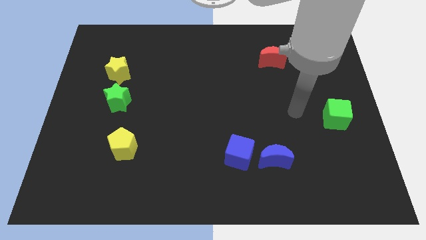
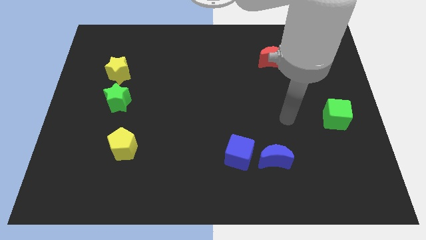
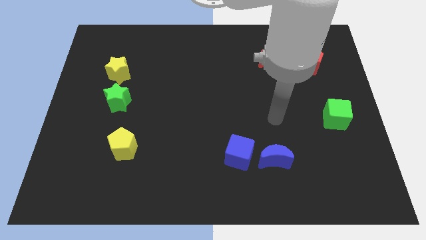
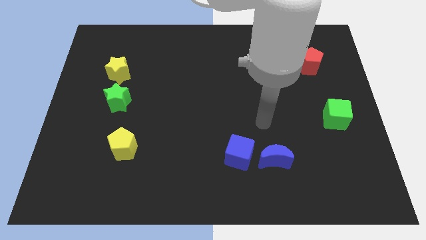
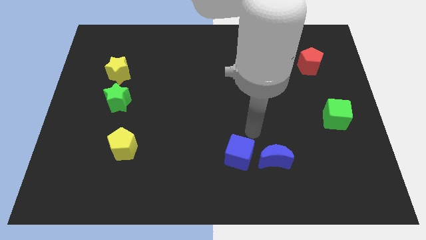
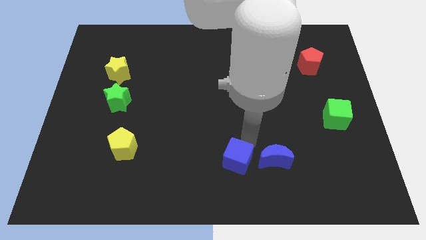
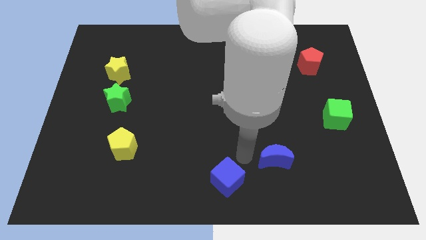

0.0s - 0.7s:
separate the blue moon from the blue cube

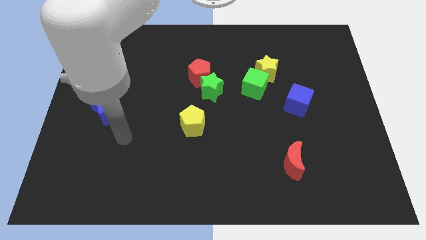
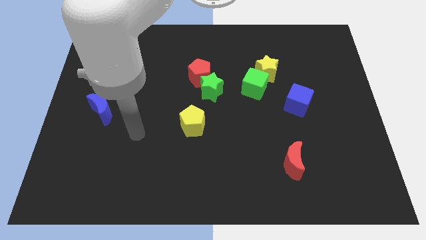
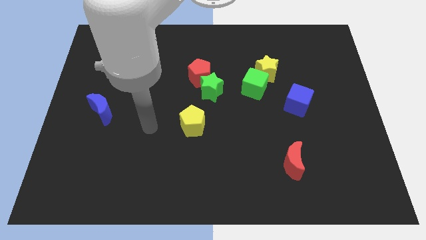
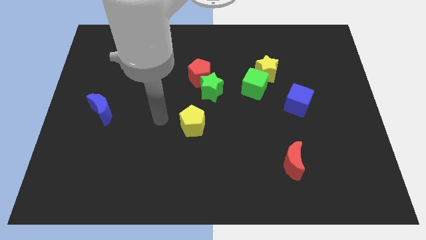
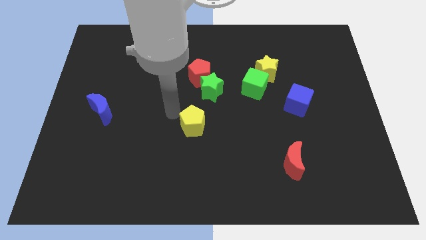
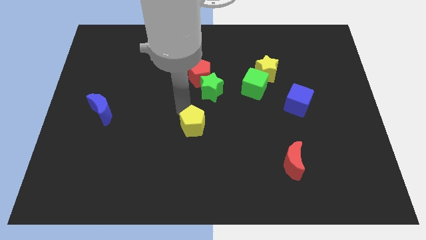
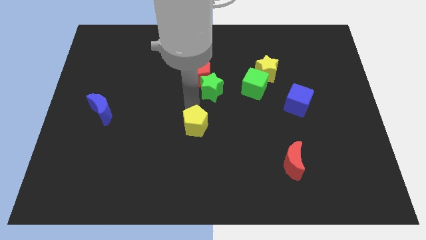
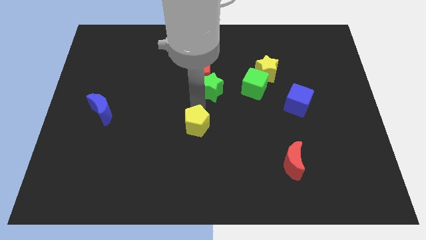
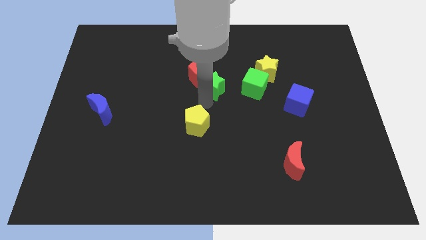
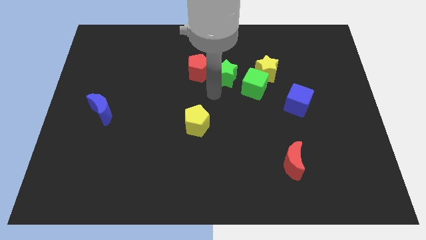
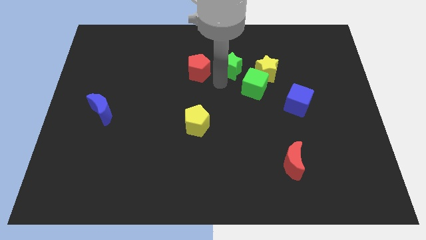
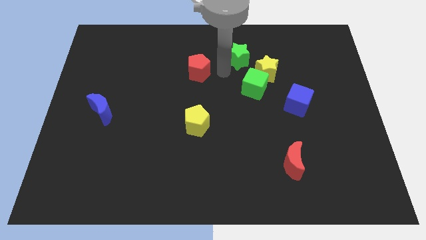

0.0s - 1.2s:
pull the red pentagon apart from the green star

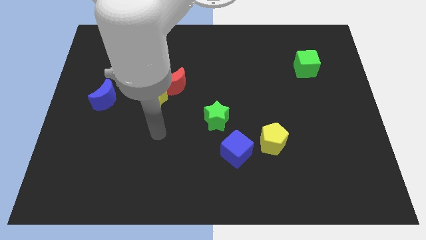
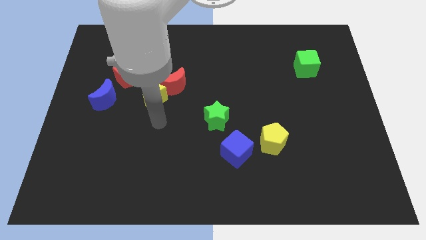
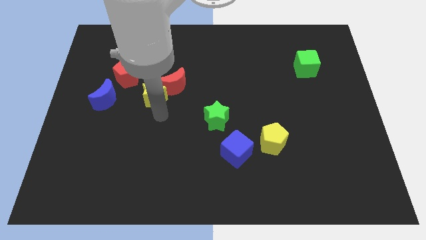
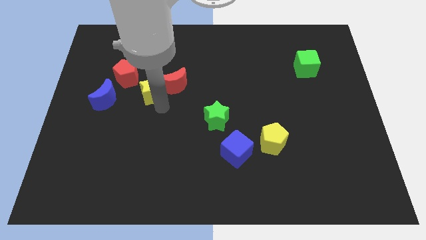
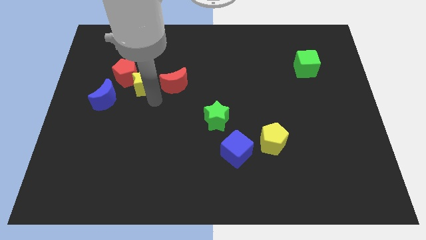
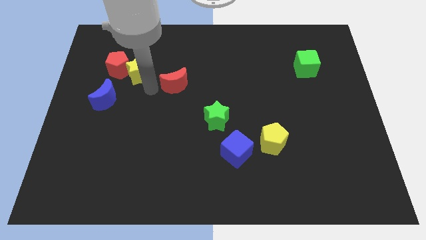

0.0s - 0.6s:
separate the red moon from the yellow star

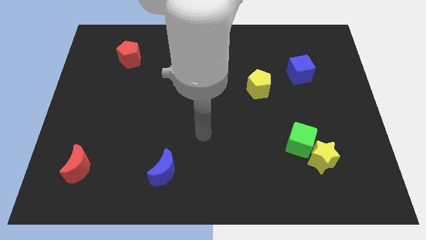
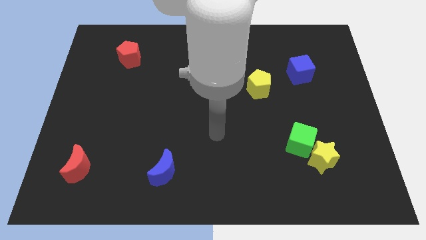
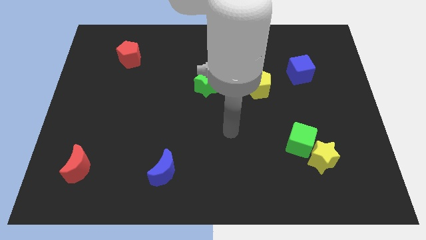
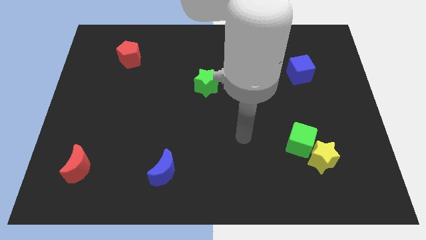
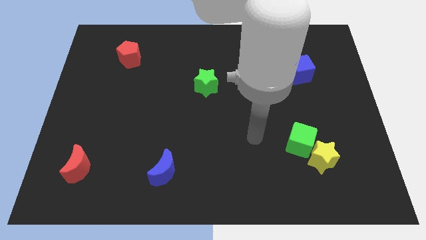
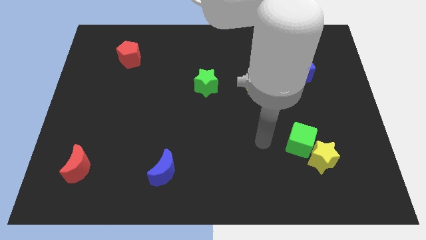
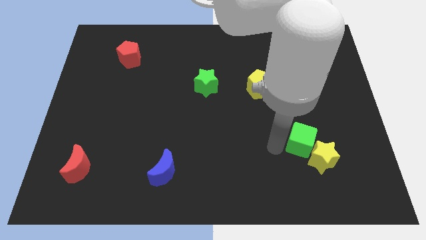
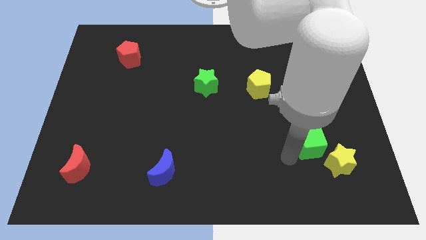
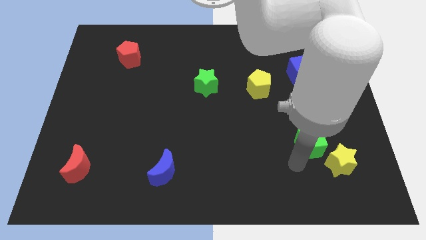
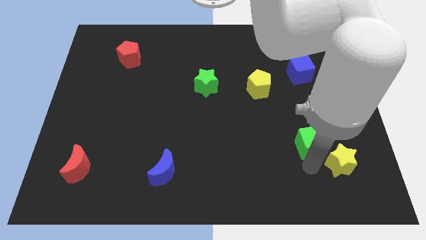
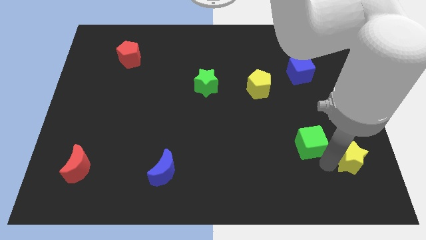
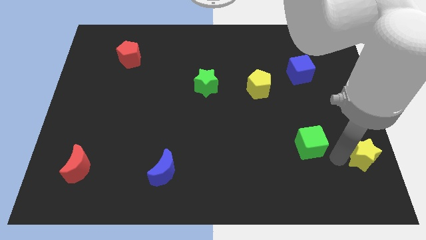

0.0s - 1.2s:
separate the green cube from the yellow star

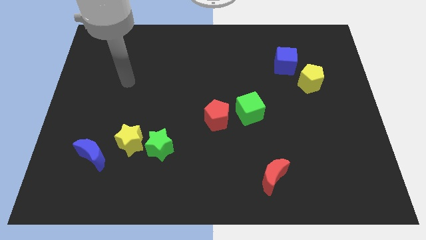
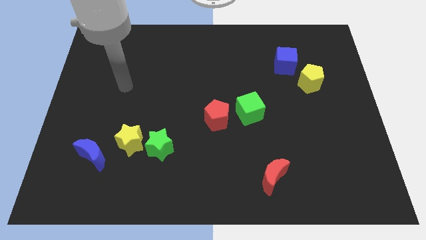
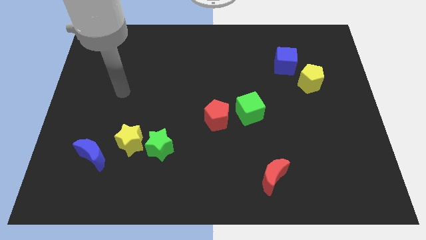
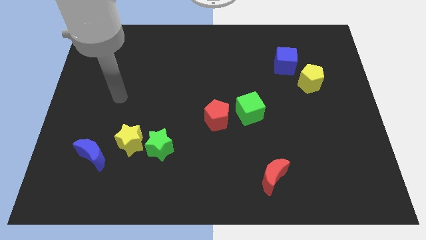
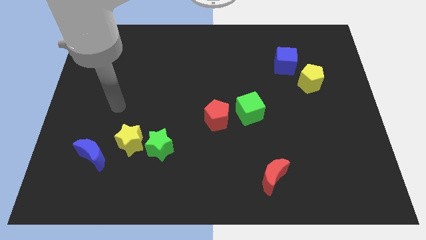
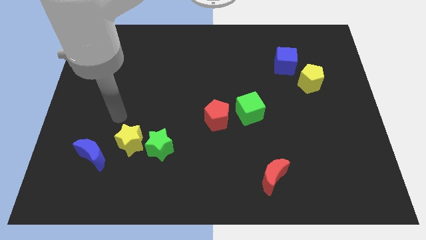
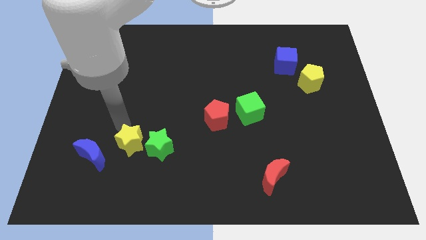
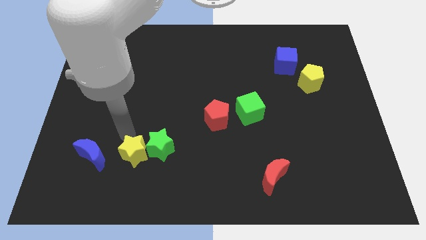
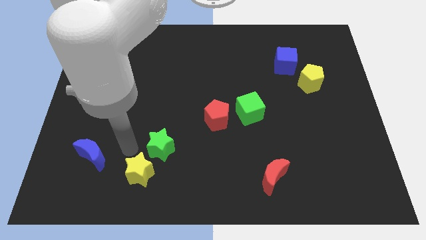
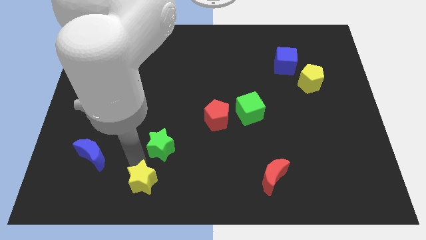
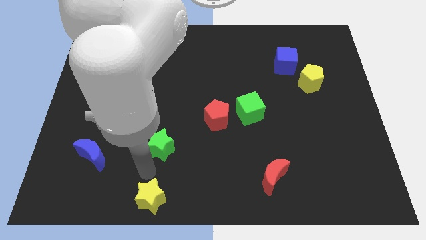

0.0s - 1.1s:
separate the green star from the yellow star

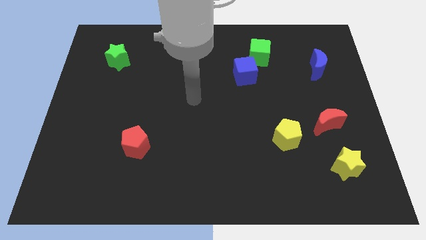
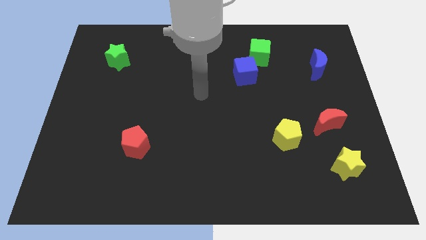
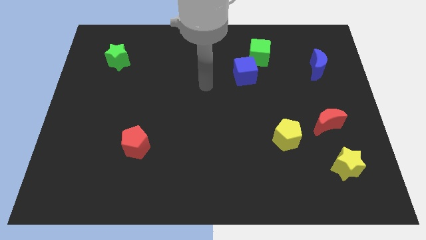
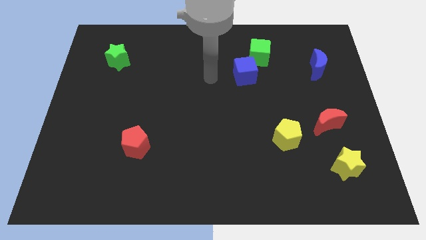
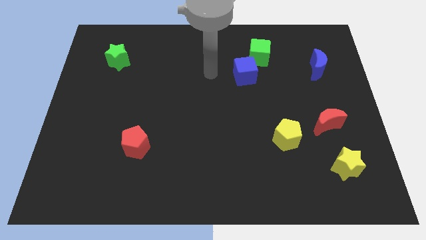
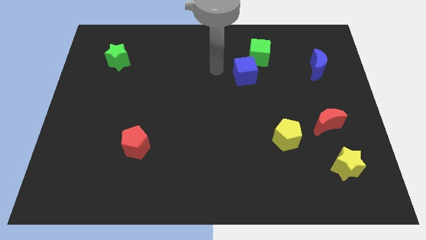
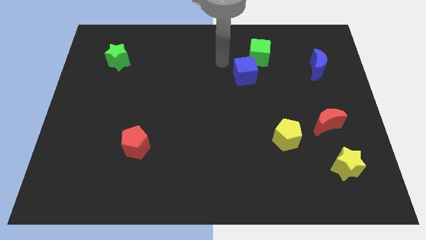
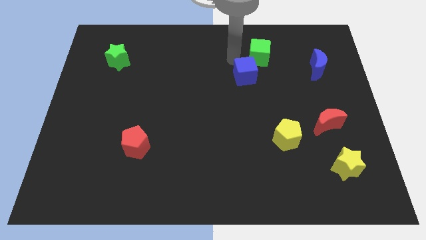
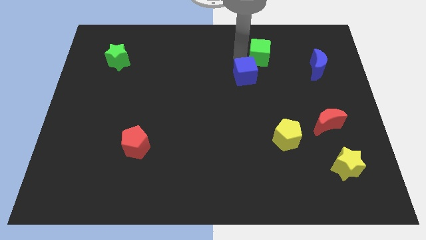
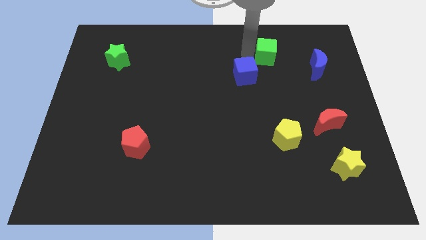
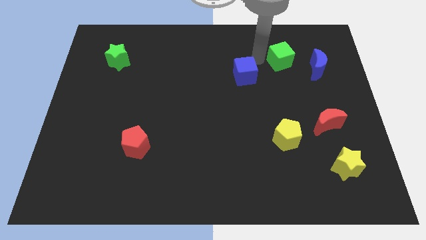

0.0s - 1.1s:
separate the blue cube from the green cube

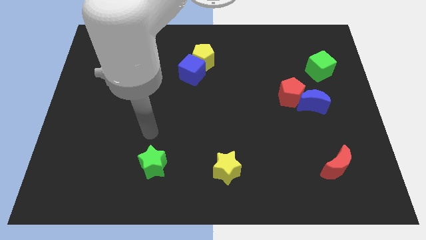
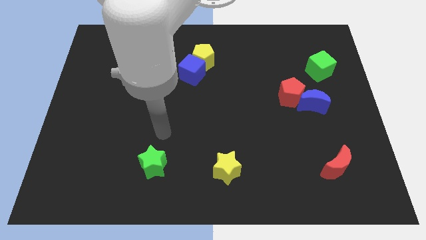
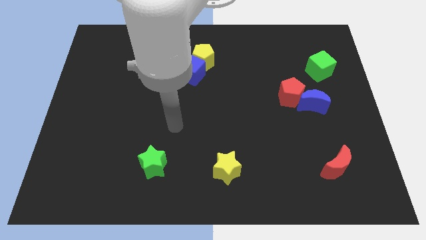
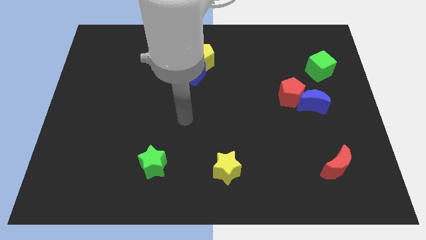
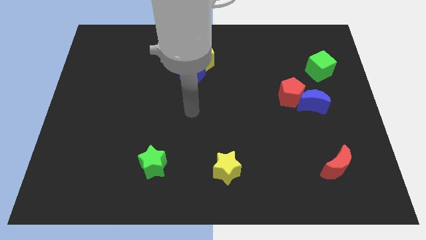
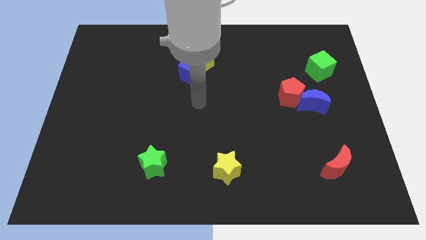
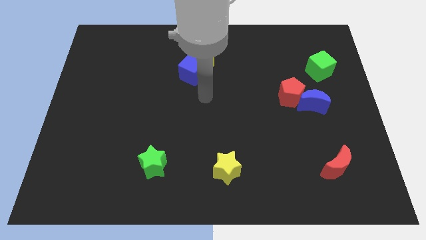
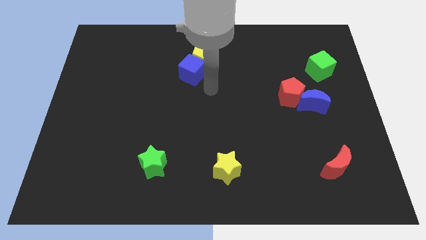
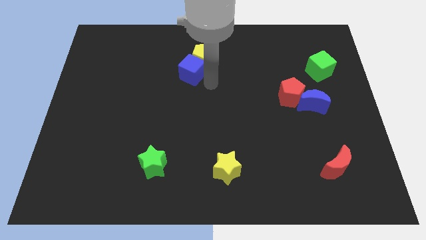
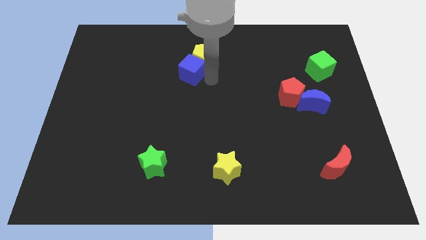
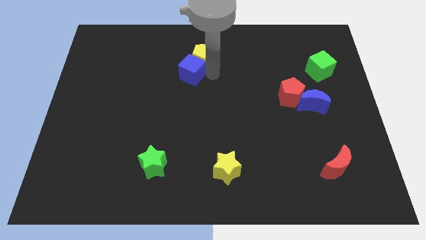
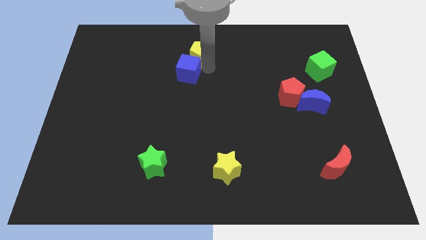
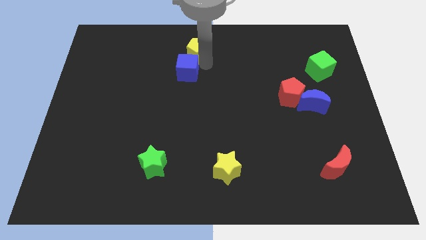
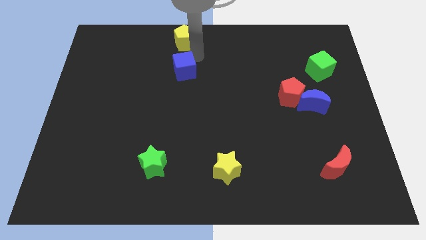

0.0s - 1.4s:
move the blue cube away from the yellow pentagon

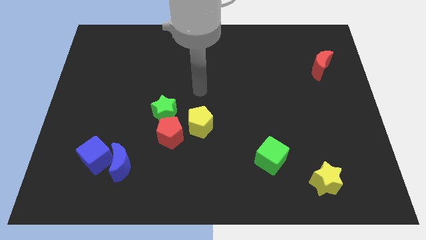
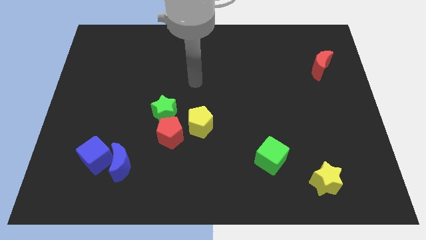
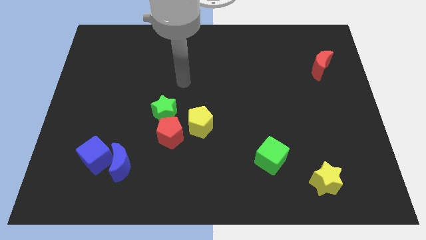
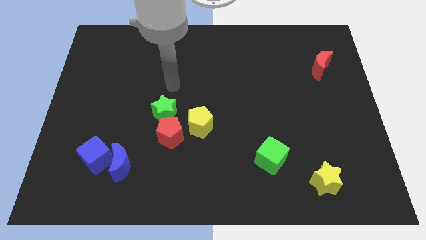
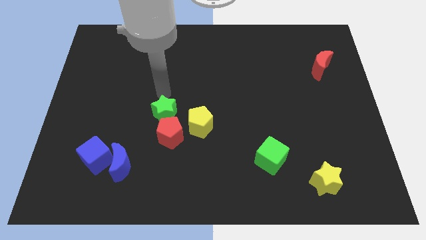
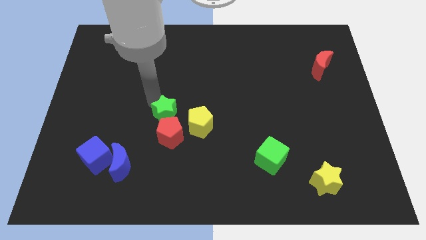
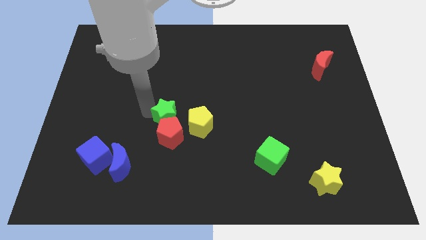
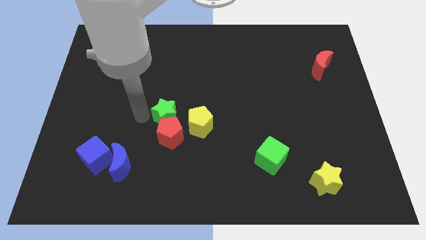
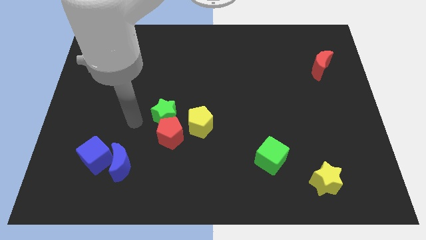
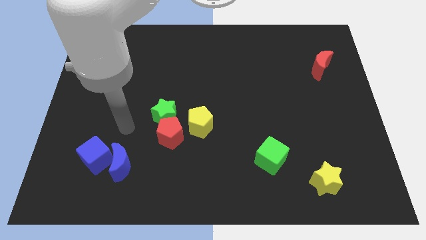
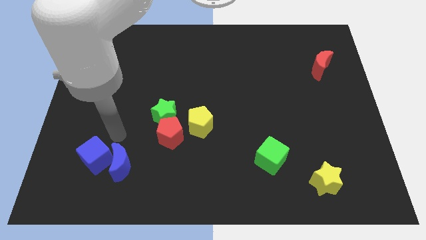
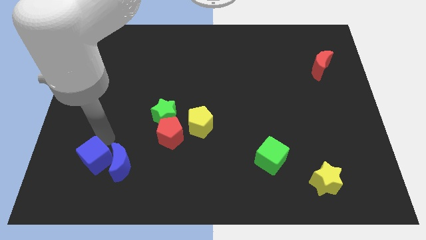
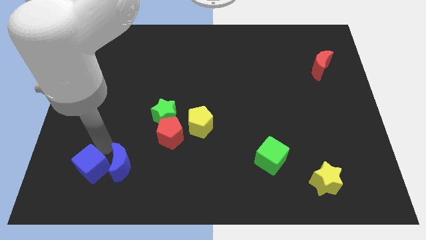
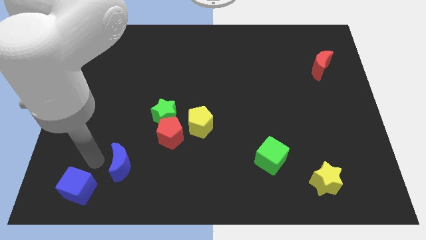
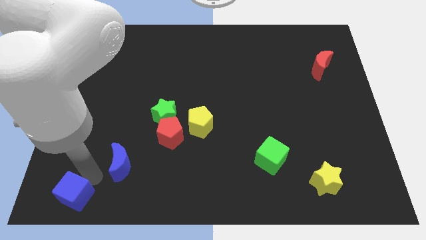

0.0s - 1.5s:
move the blue moon away from the blue cube

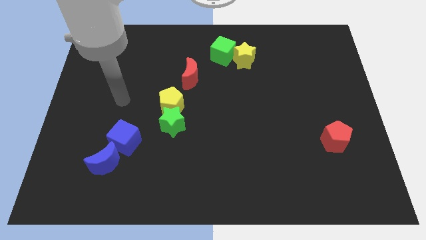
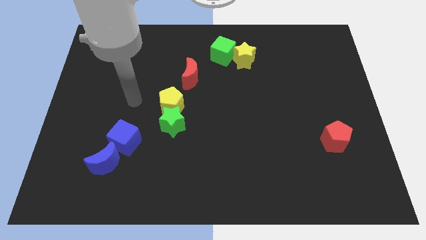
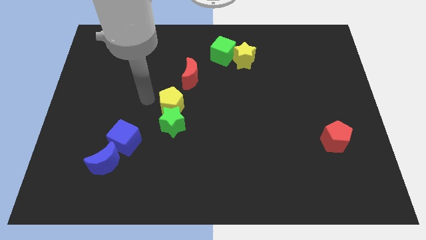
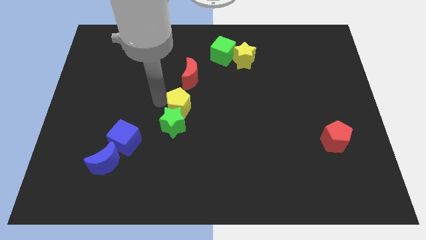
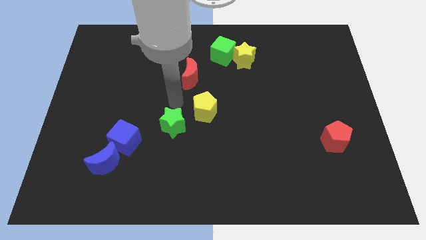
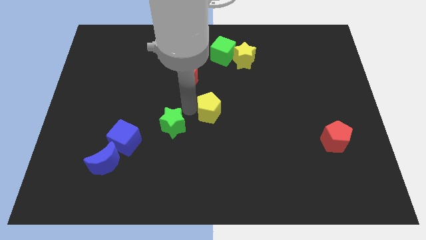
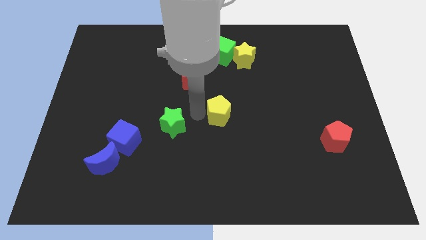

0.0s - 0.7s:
separate the green star from the yellow pentagon
